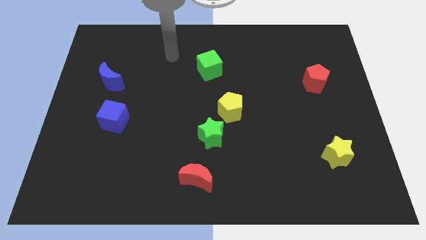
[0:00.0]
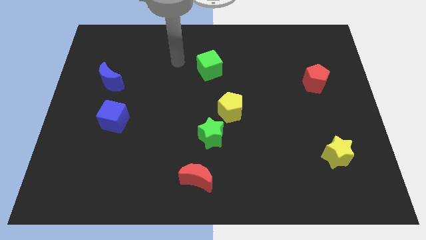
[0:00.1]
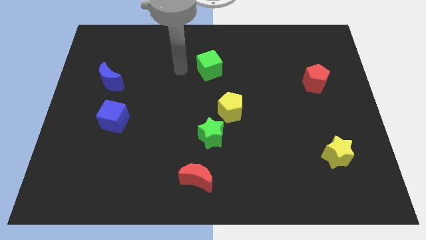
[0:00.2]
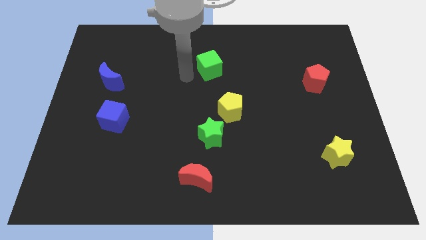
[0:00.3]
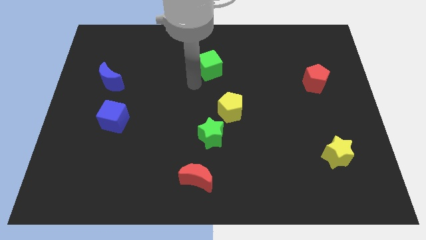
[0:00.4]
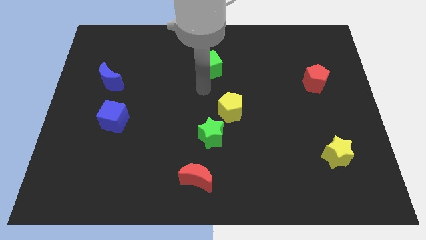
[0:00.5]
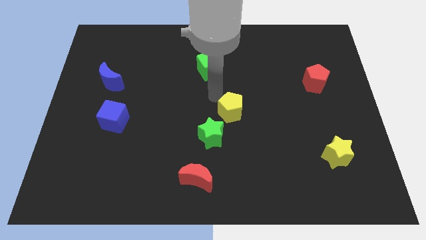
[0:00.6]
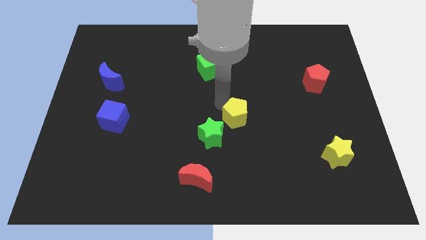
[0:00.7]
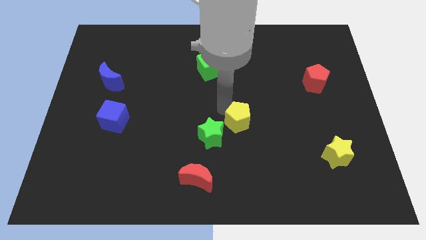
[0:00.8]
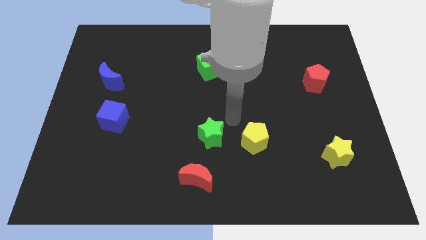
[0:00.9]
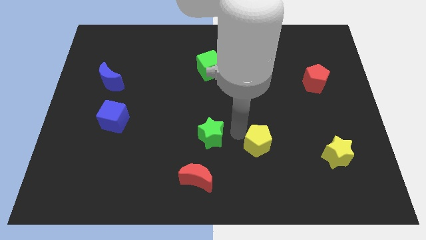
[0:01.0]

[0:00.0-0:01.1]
move the green star away from the yellow pentagon

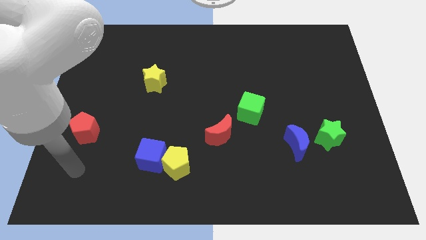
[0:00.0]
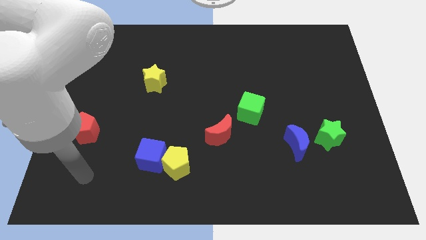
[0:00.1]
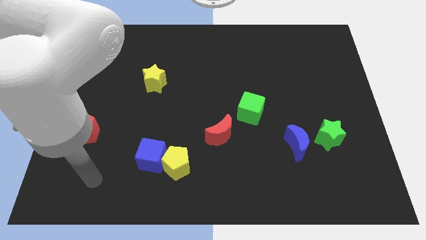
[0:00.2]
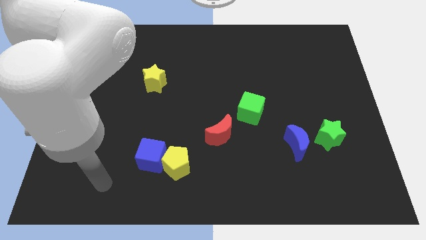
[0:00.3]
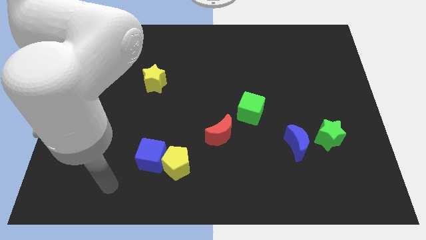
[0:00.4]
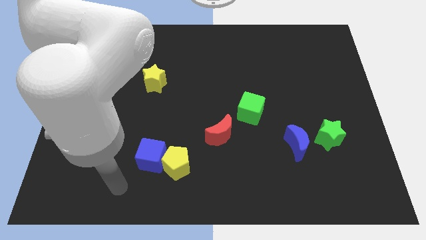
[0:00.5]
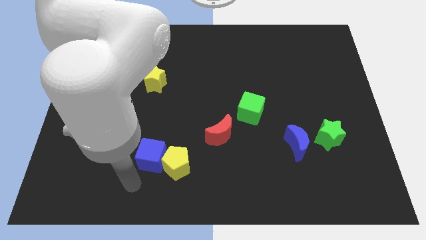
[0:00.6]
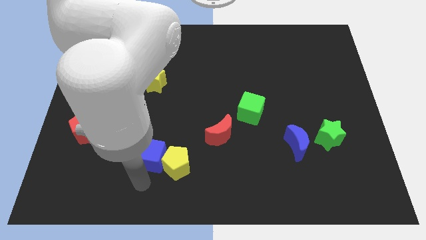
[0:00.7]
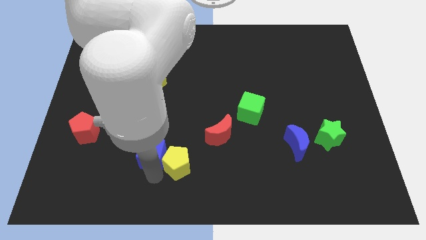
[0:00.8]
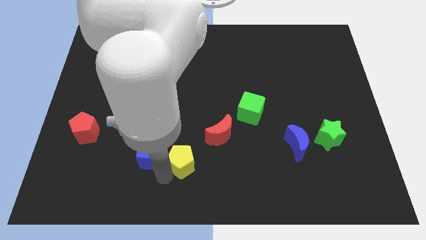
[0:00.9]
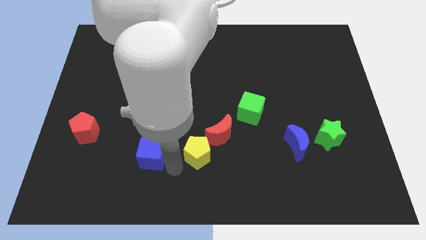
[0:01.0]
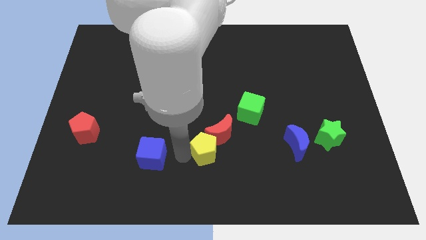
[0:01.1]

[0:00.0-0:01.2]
separate the blue cube from the yellow pentagon

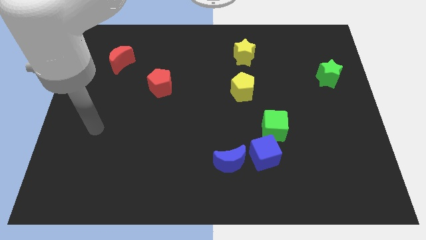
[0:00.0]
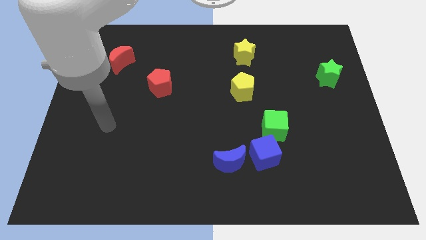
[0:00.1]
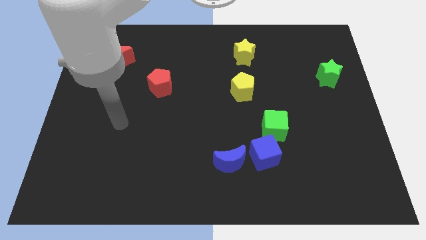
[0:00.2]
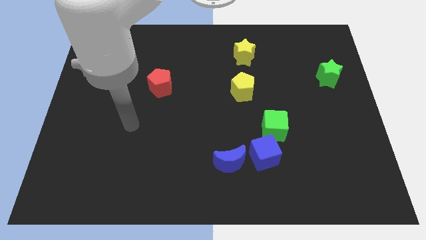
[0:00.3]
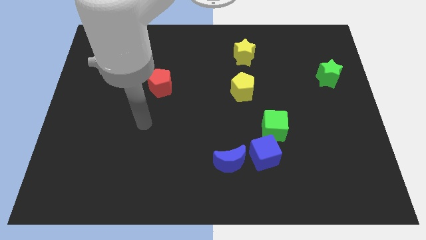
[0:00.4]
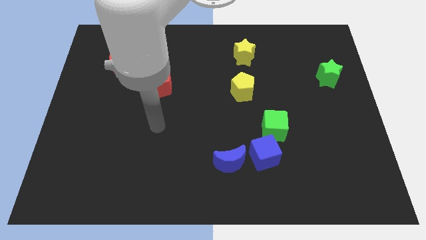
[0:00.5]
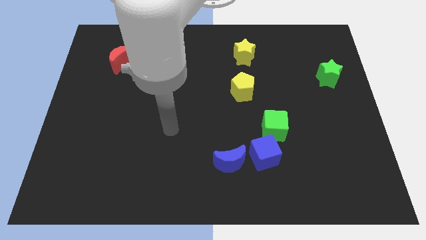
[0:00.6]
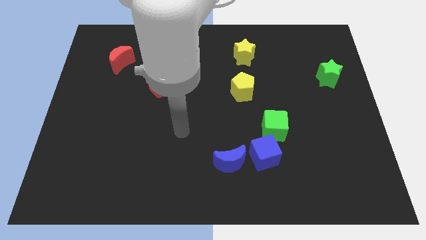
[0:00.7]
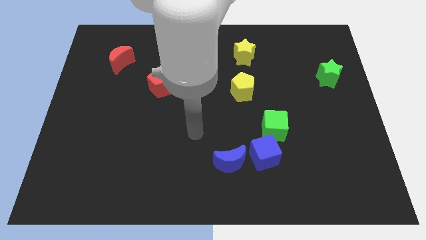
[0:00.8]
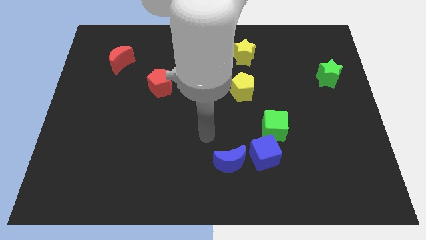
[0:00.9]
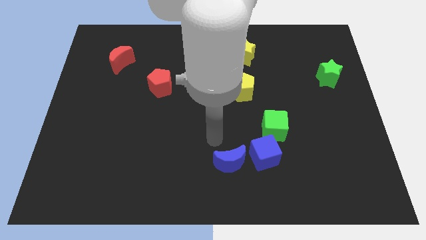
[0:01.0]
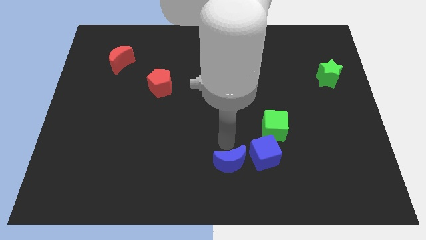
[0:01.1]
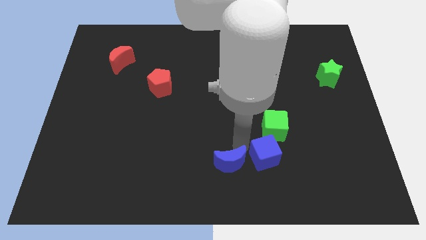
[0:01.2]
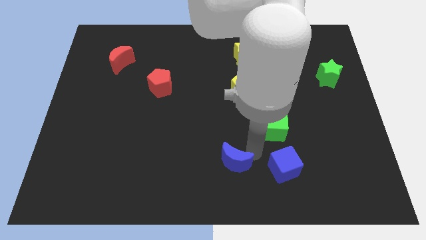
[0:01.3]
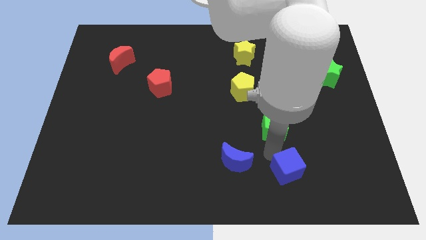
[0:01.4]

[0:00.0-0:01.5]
move the green cube away from the blue cube

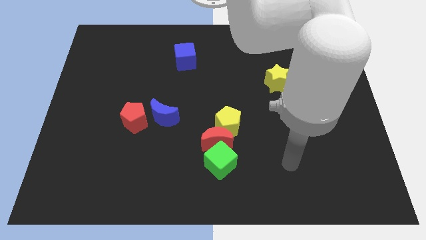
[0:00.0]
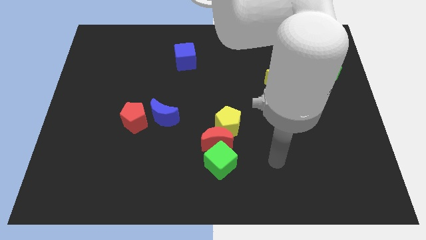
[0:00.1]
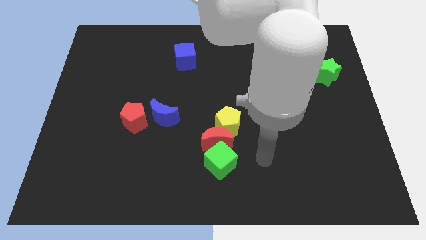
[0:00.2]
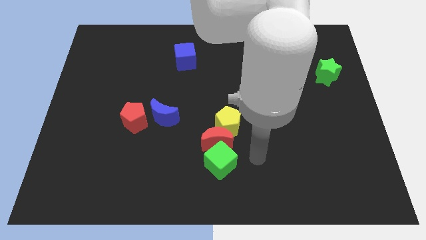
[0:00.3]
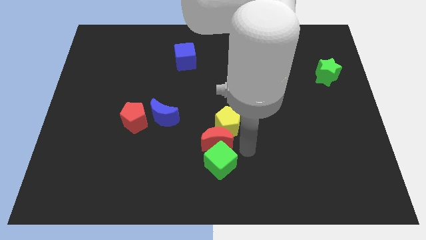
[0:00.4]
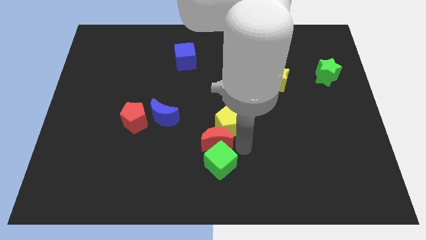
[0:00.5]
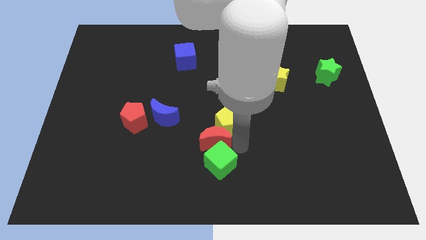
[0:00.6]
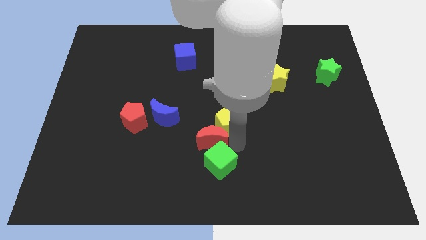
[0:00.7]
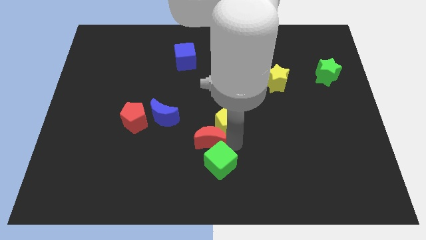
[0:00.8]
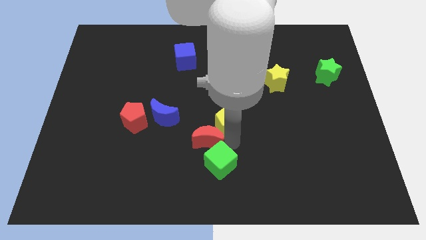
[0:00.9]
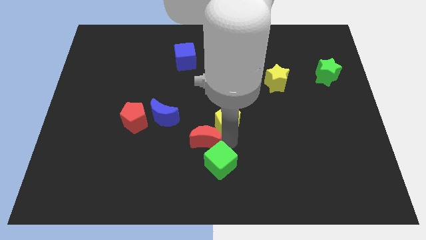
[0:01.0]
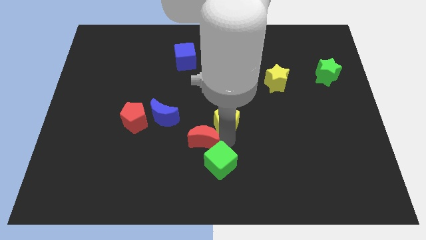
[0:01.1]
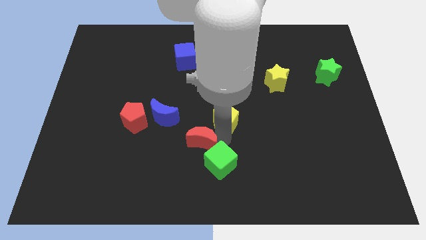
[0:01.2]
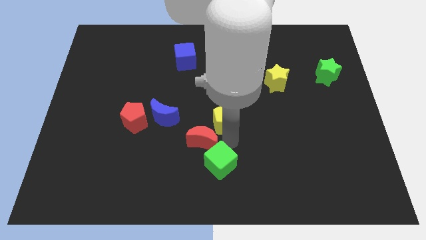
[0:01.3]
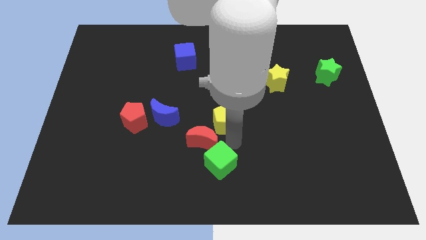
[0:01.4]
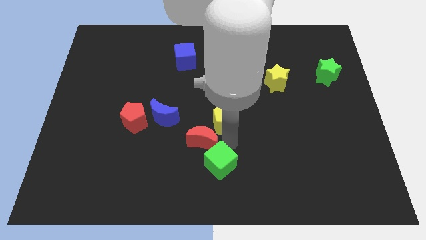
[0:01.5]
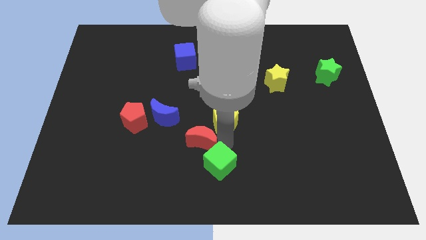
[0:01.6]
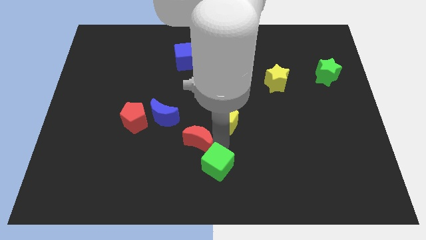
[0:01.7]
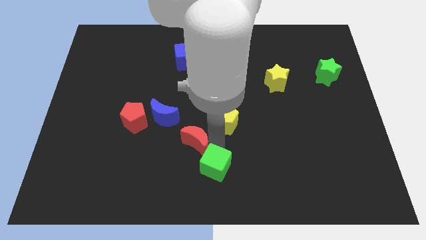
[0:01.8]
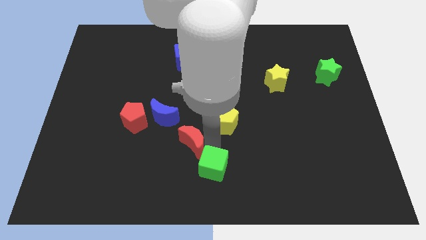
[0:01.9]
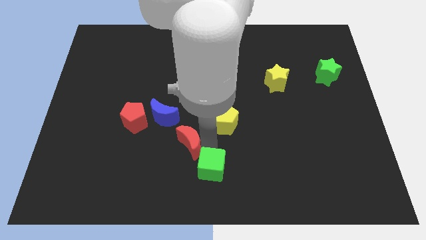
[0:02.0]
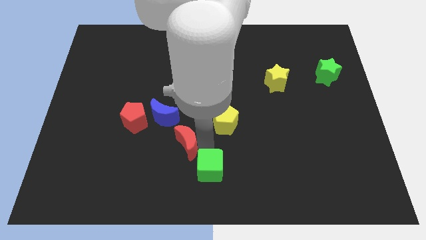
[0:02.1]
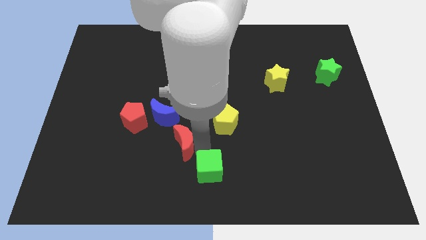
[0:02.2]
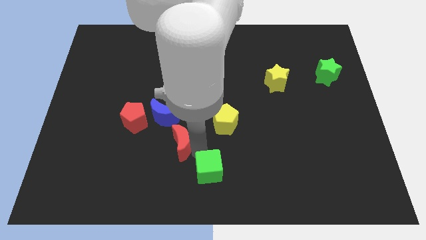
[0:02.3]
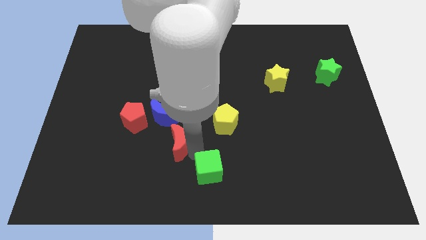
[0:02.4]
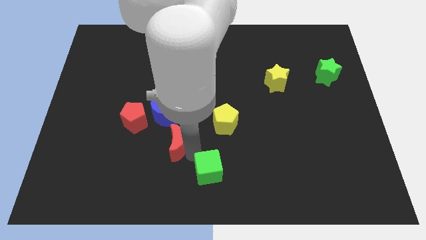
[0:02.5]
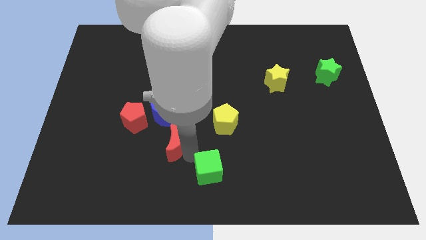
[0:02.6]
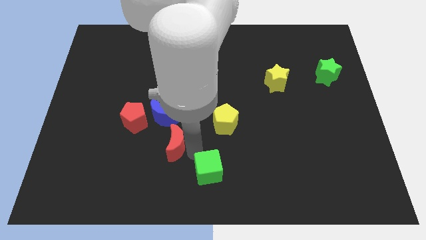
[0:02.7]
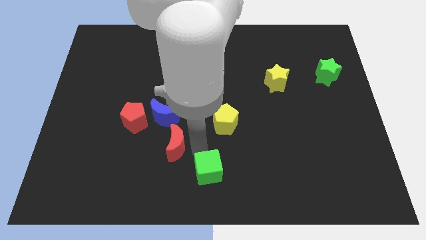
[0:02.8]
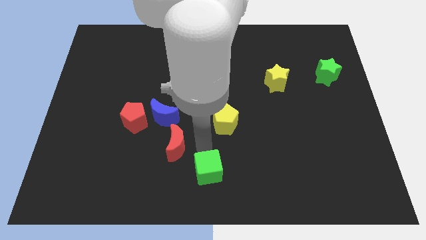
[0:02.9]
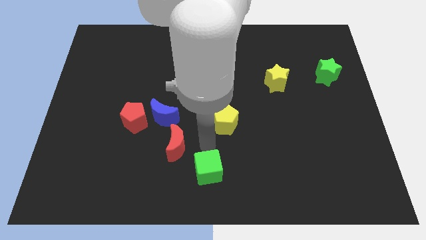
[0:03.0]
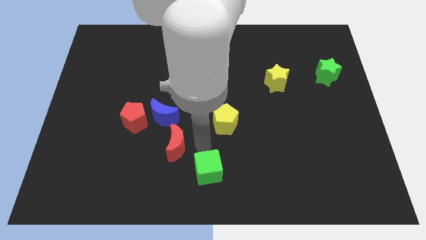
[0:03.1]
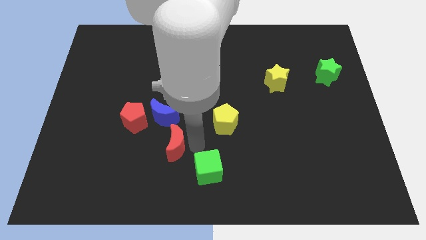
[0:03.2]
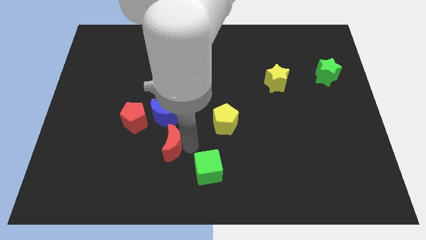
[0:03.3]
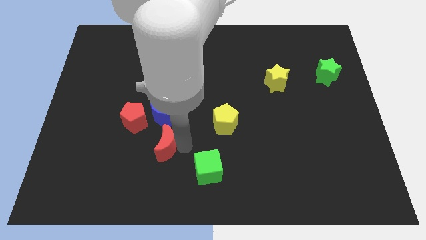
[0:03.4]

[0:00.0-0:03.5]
separate the red moon from the yellow pentagon and green cube

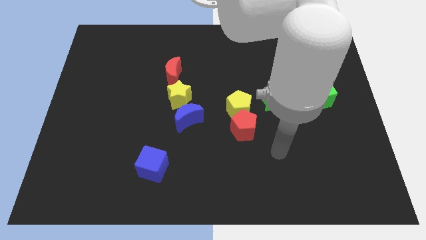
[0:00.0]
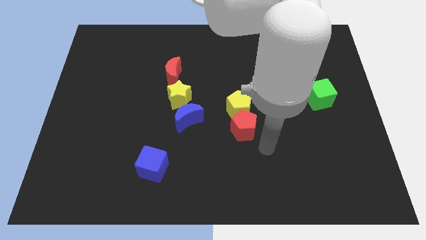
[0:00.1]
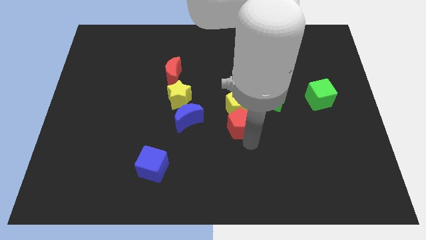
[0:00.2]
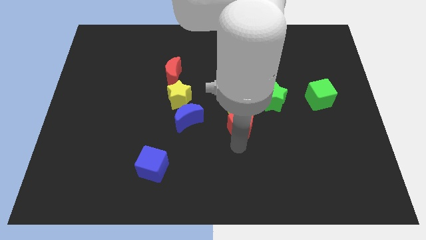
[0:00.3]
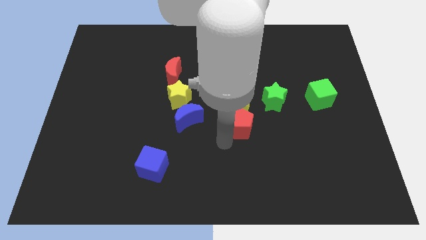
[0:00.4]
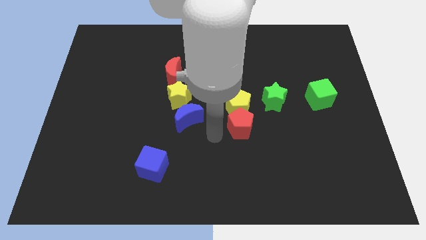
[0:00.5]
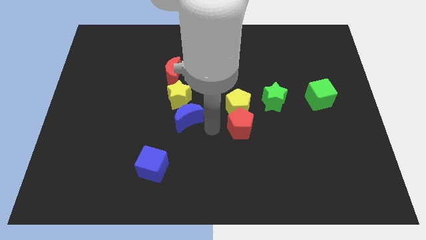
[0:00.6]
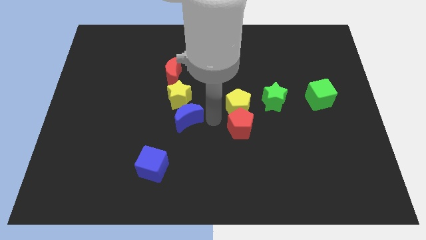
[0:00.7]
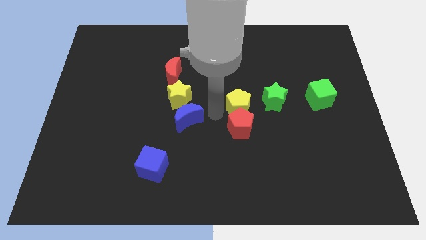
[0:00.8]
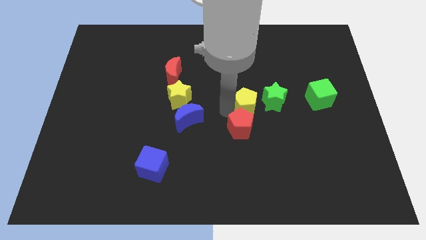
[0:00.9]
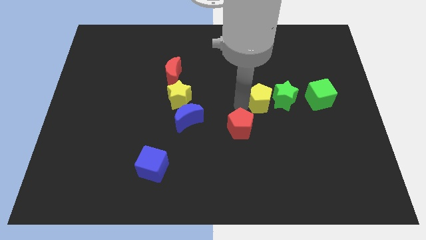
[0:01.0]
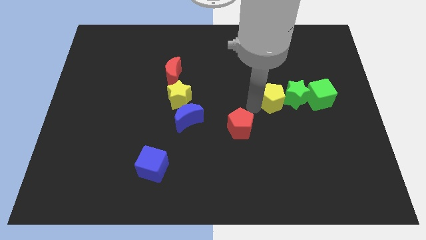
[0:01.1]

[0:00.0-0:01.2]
move the red pentagon away from the yellow pentagon

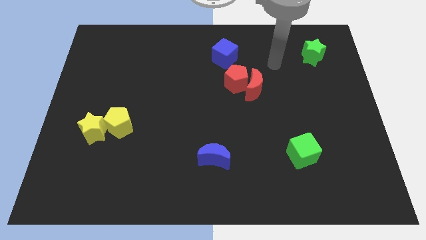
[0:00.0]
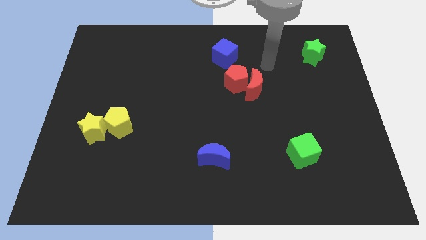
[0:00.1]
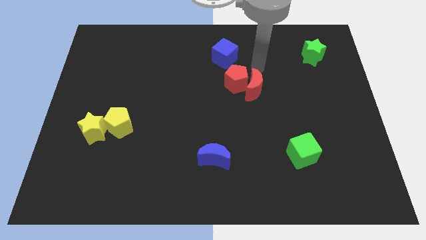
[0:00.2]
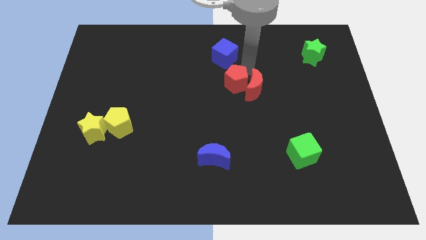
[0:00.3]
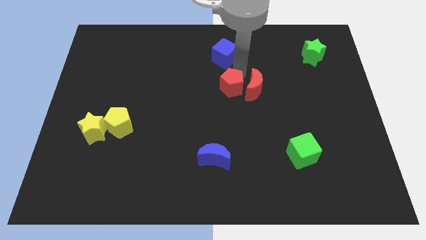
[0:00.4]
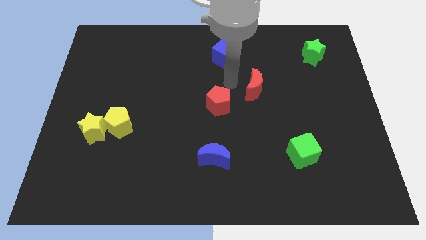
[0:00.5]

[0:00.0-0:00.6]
separate the red moon from the red pentagon

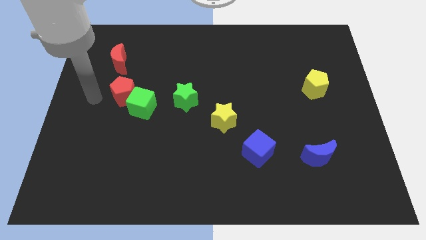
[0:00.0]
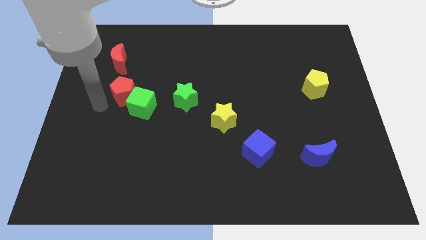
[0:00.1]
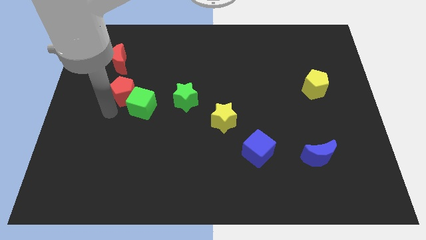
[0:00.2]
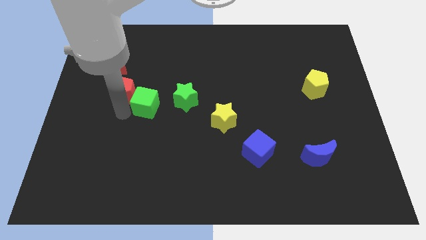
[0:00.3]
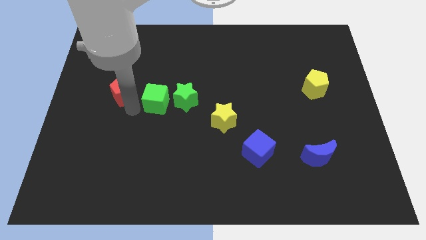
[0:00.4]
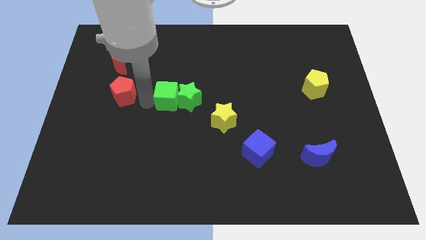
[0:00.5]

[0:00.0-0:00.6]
move the red pentagon away from the green cube
